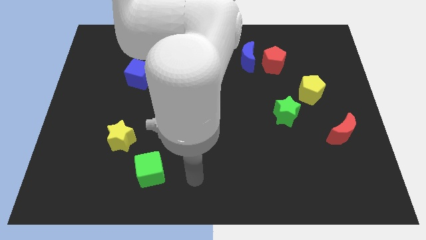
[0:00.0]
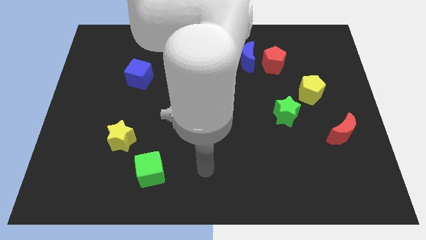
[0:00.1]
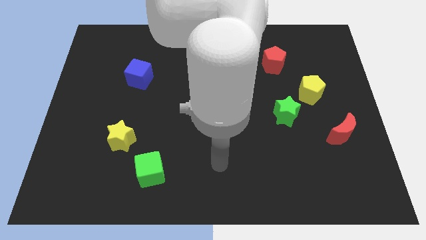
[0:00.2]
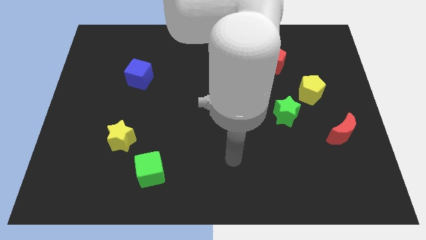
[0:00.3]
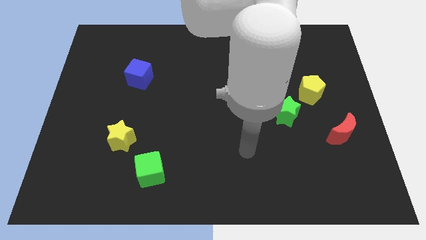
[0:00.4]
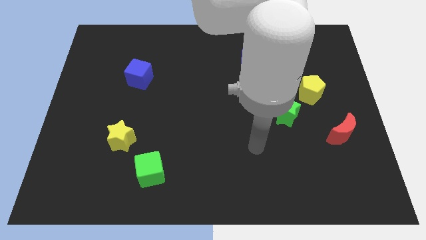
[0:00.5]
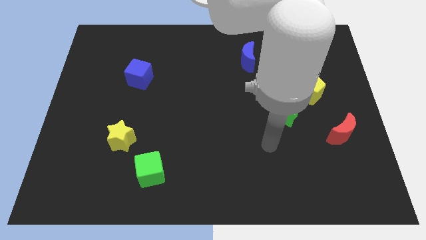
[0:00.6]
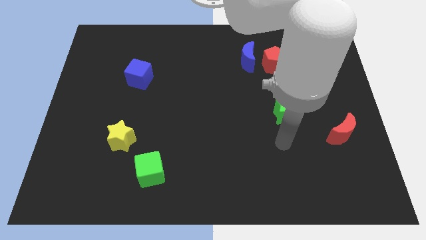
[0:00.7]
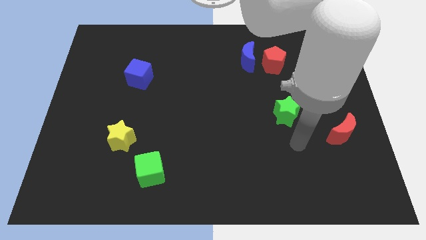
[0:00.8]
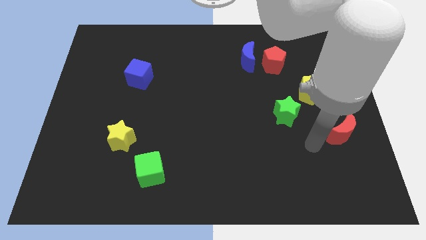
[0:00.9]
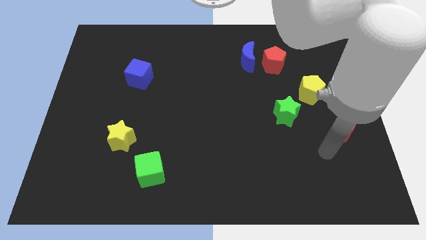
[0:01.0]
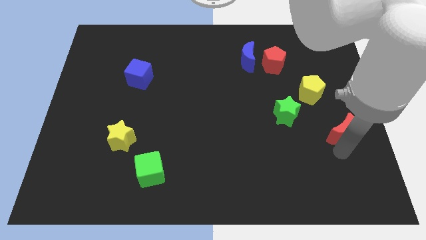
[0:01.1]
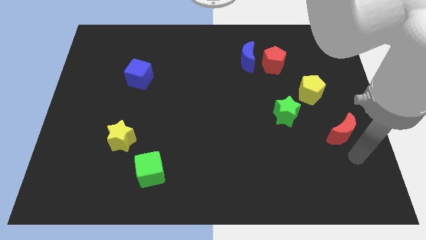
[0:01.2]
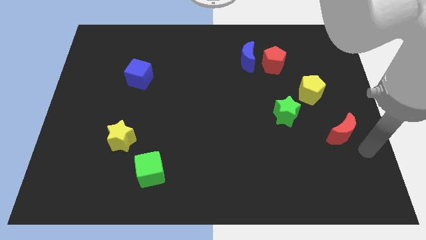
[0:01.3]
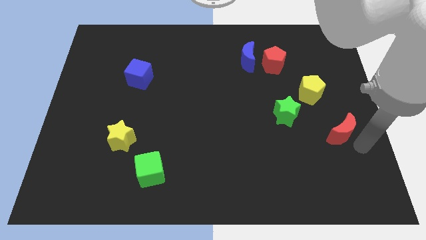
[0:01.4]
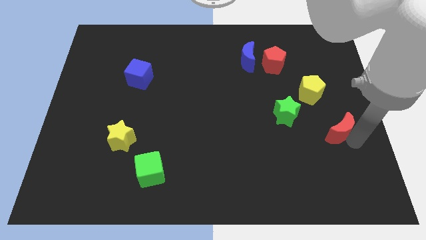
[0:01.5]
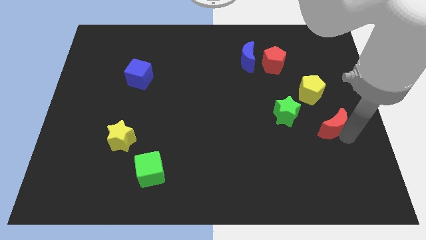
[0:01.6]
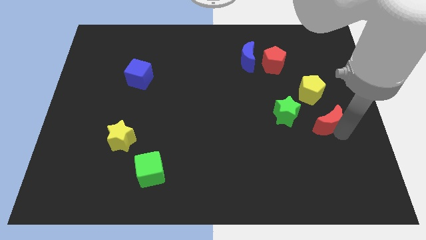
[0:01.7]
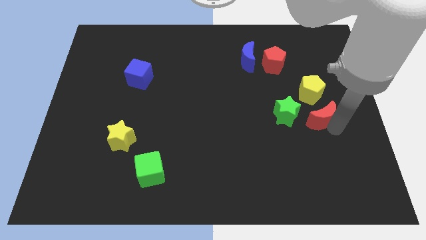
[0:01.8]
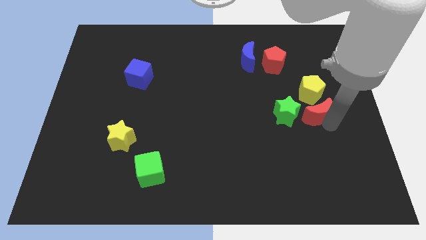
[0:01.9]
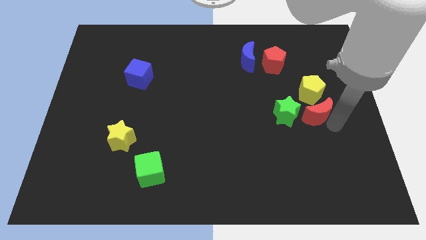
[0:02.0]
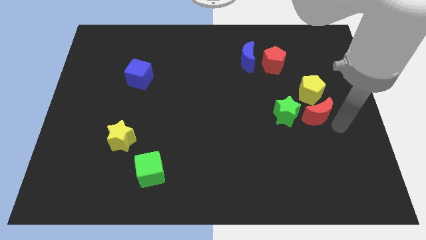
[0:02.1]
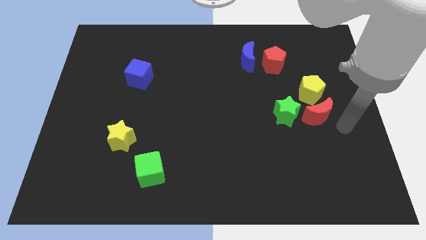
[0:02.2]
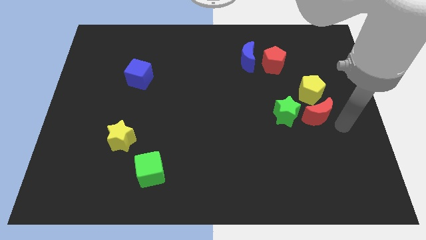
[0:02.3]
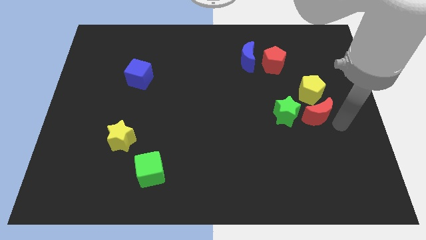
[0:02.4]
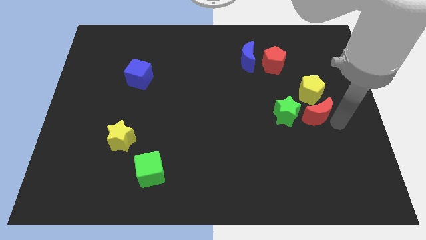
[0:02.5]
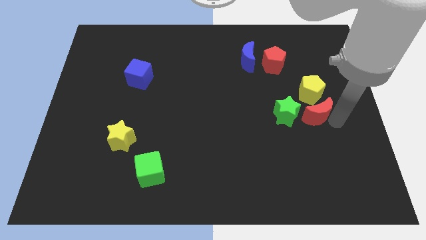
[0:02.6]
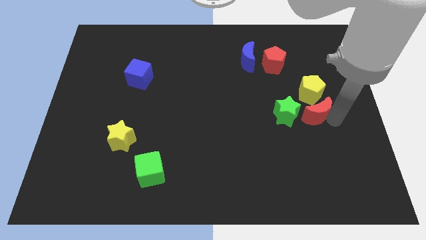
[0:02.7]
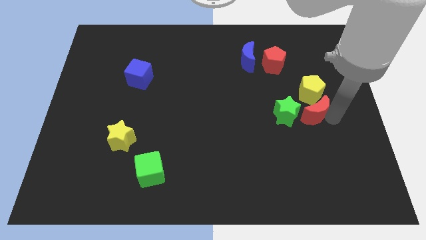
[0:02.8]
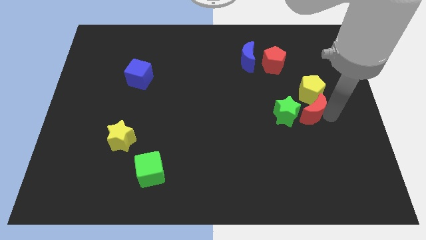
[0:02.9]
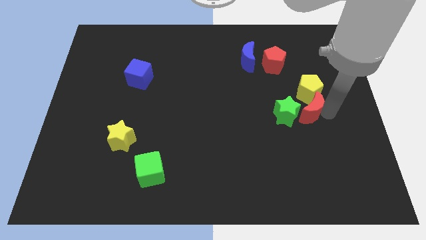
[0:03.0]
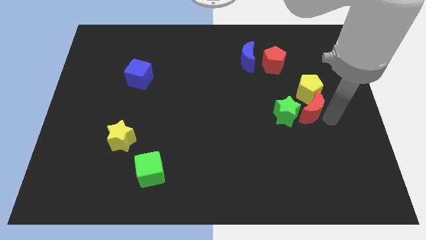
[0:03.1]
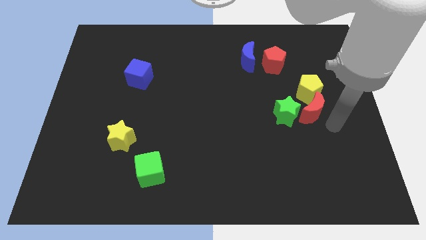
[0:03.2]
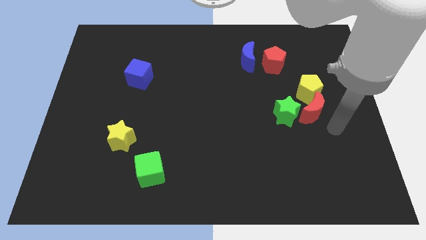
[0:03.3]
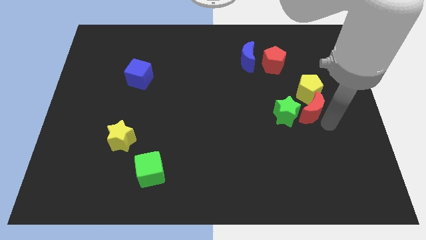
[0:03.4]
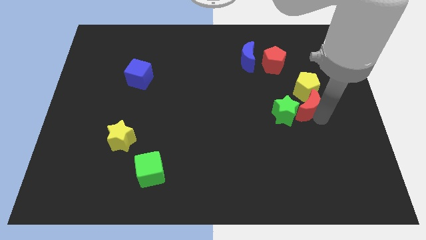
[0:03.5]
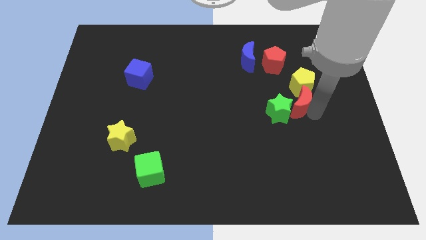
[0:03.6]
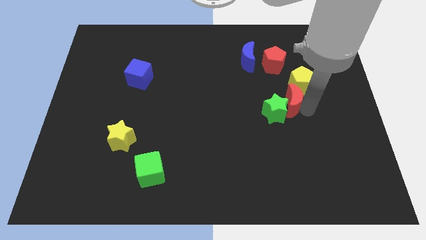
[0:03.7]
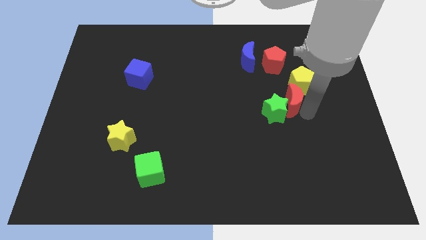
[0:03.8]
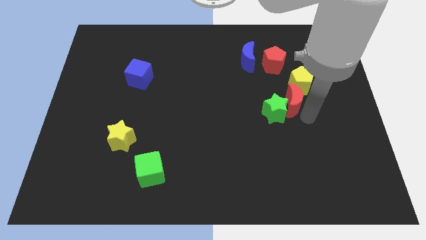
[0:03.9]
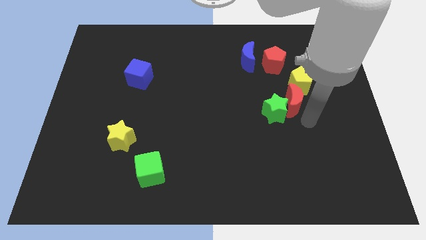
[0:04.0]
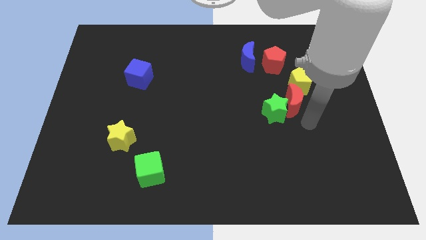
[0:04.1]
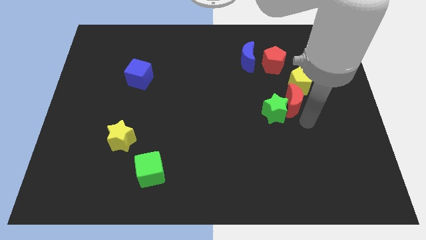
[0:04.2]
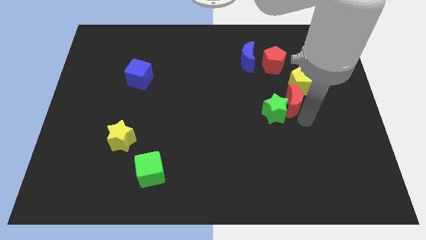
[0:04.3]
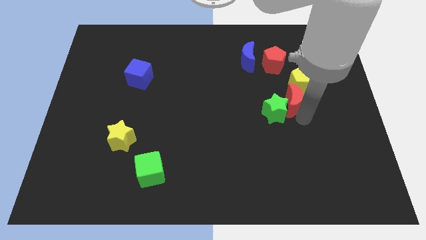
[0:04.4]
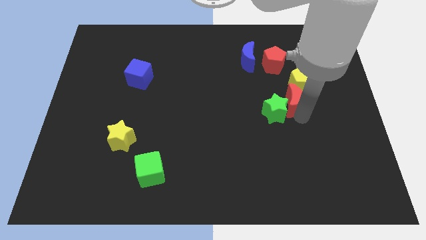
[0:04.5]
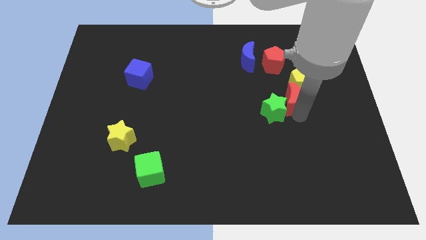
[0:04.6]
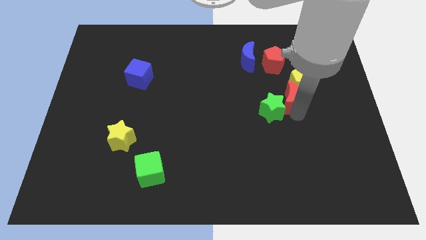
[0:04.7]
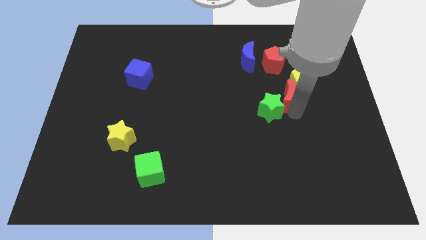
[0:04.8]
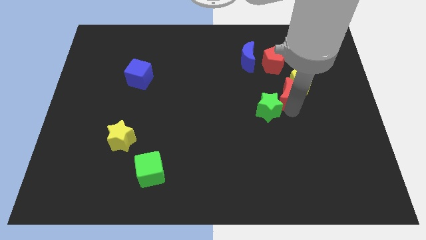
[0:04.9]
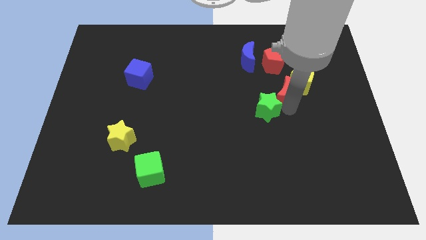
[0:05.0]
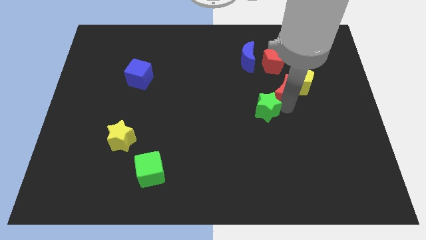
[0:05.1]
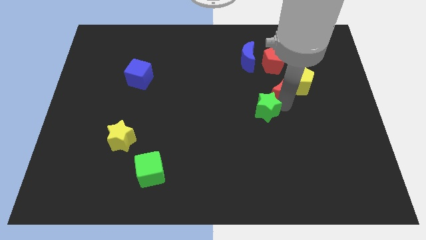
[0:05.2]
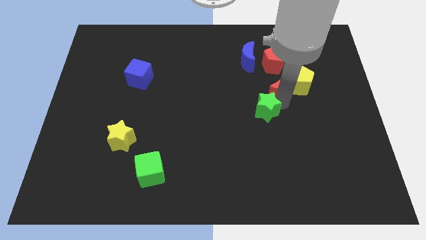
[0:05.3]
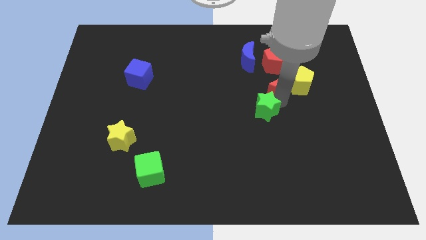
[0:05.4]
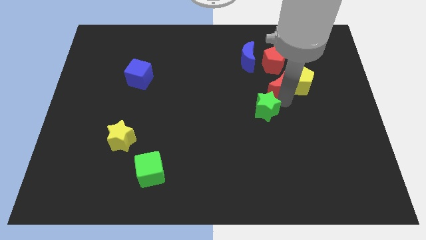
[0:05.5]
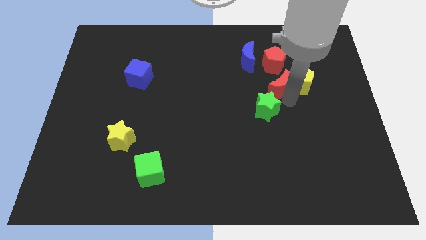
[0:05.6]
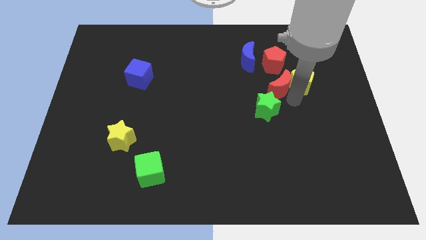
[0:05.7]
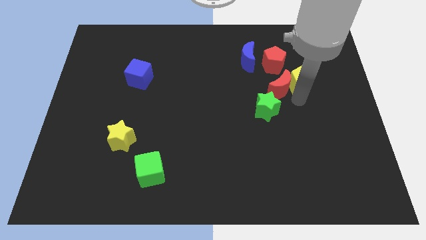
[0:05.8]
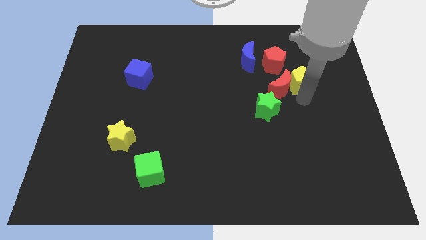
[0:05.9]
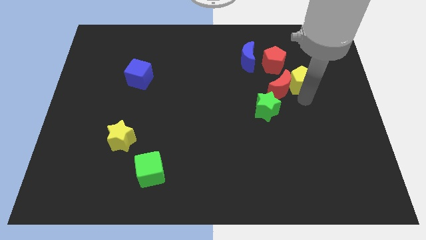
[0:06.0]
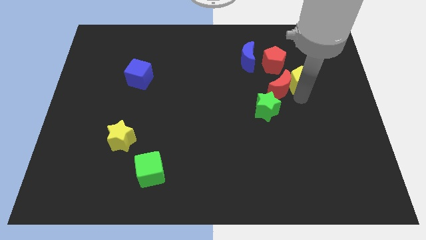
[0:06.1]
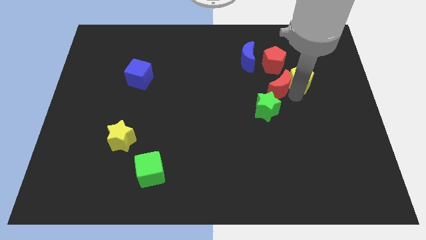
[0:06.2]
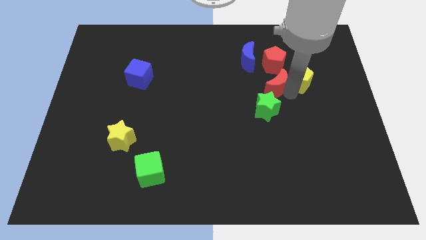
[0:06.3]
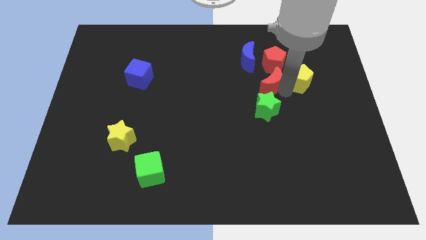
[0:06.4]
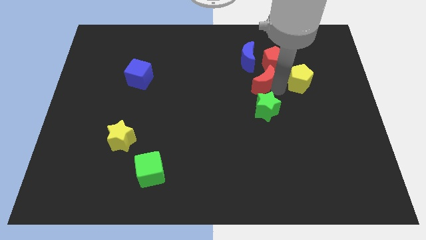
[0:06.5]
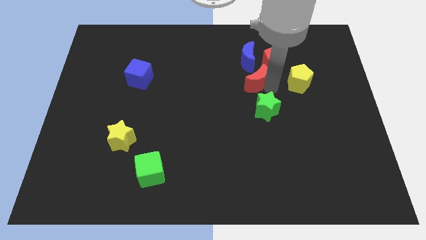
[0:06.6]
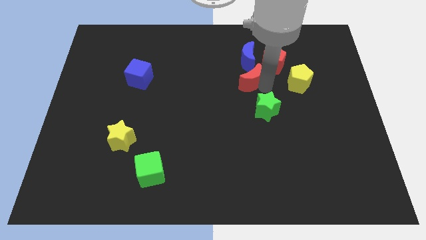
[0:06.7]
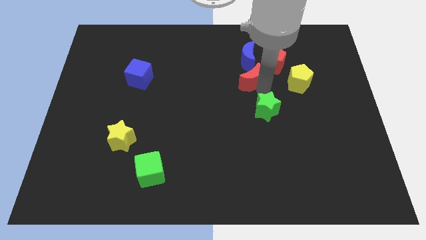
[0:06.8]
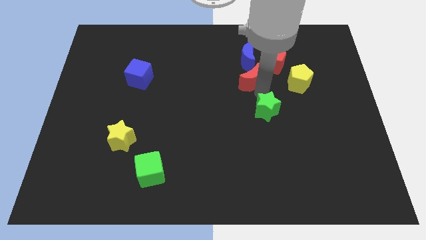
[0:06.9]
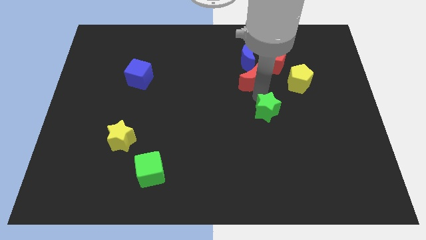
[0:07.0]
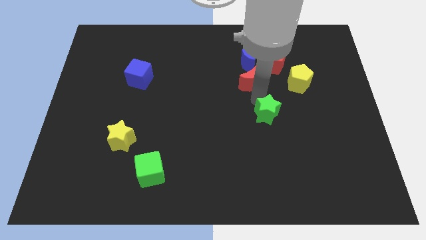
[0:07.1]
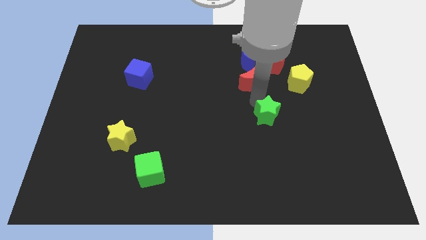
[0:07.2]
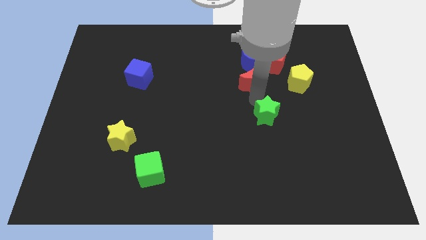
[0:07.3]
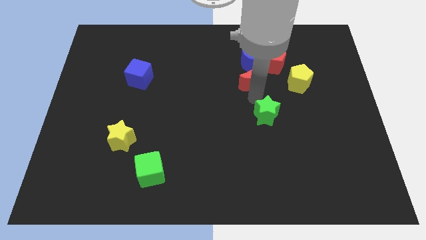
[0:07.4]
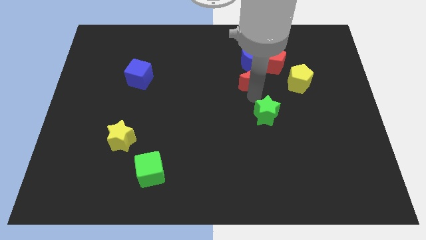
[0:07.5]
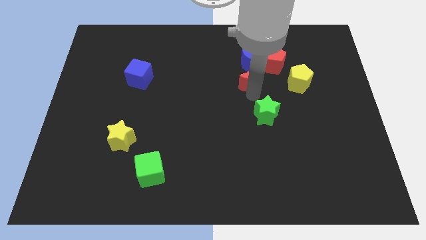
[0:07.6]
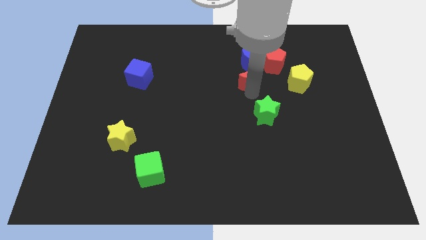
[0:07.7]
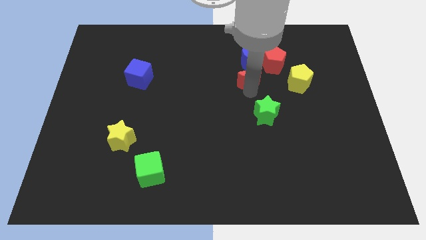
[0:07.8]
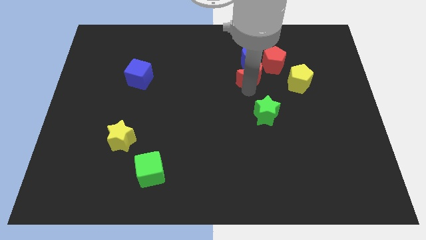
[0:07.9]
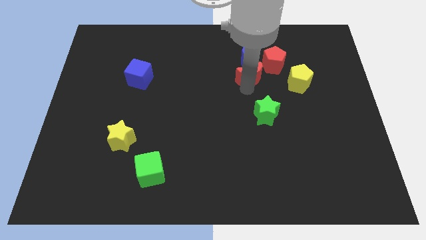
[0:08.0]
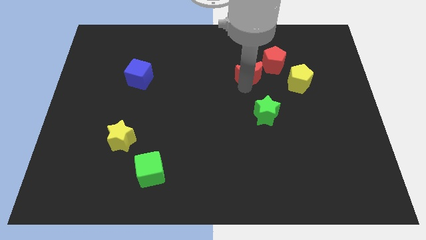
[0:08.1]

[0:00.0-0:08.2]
put the red moon to the blue moon
